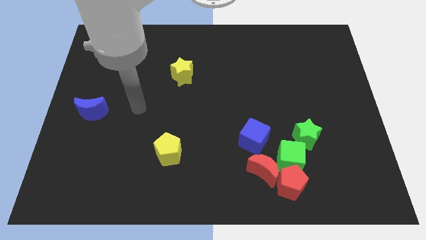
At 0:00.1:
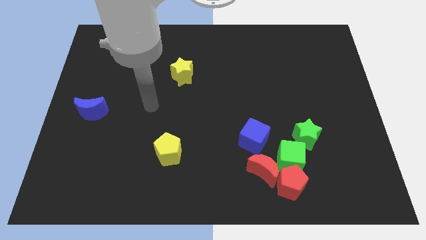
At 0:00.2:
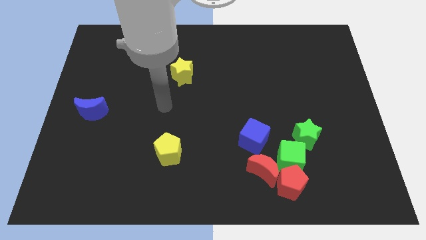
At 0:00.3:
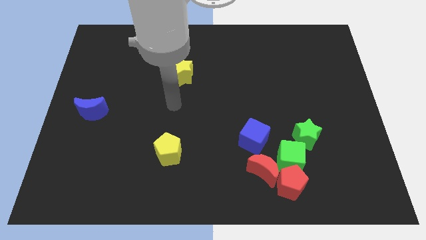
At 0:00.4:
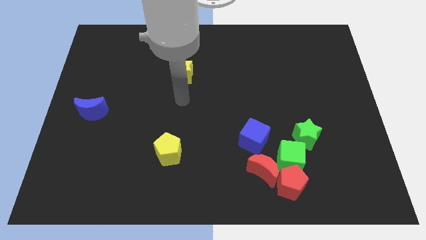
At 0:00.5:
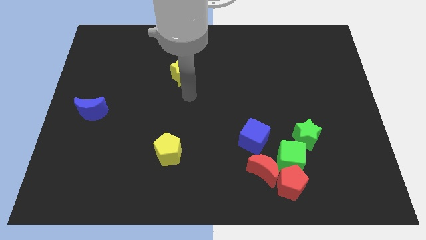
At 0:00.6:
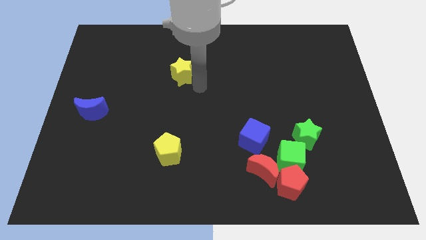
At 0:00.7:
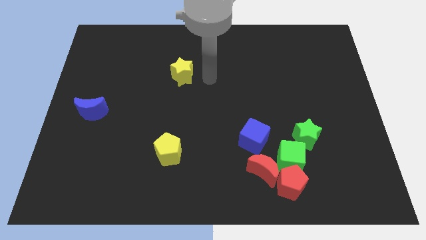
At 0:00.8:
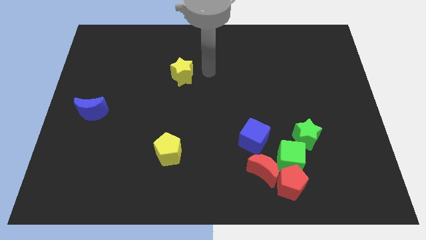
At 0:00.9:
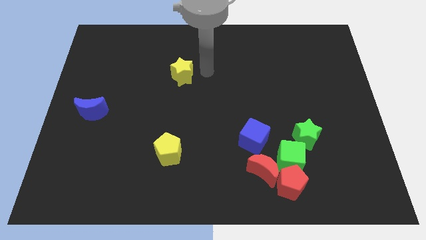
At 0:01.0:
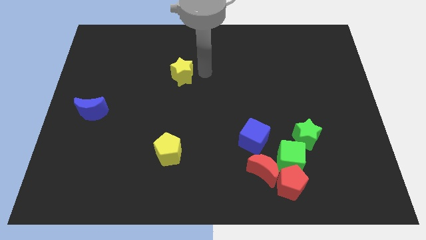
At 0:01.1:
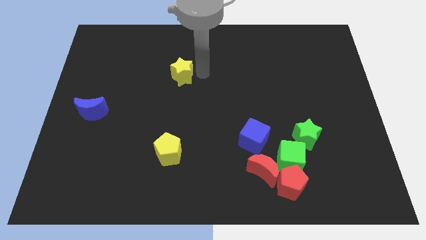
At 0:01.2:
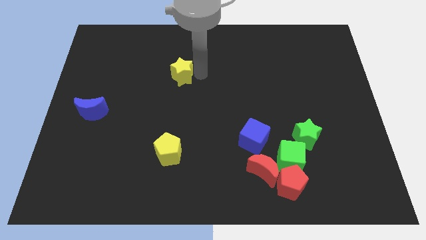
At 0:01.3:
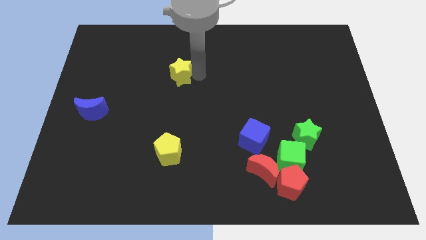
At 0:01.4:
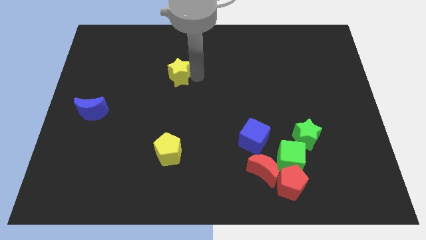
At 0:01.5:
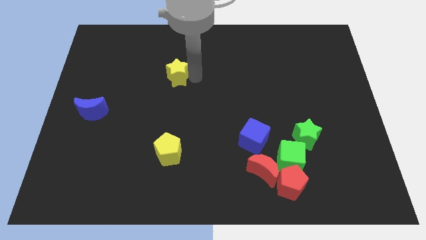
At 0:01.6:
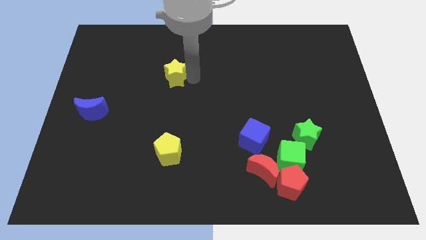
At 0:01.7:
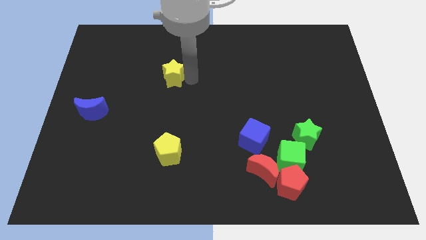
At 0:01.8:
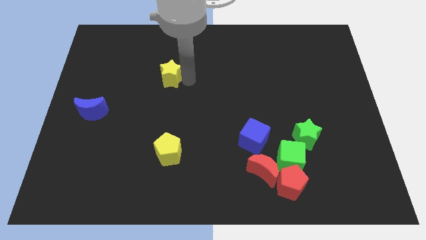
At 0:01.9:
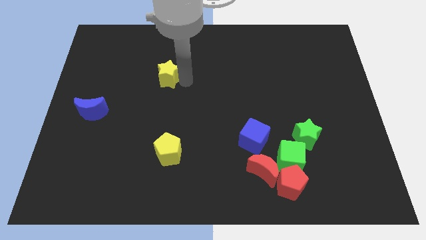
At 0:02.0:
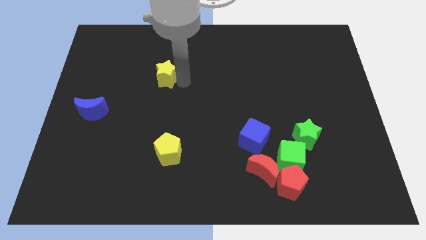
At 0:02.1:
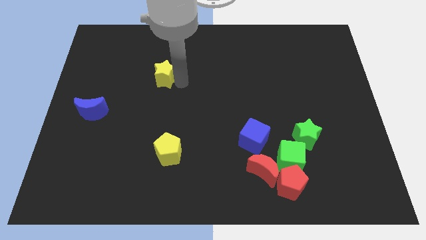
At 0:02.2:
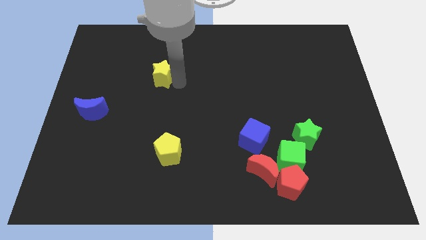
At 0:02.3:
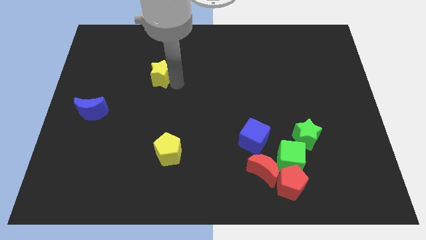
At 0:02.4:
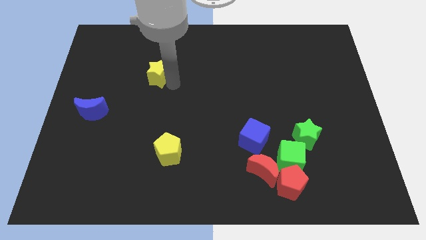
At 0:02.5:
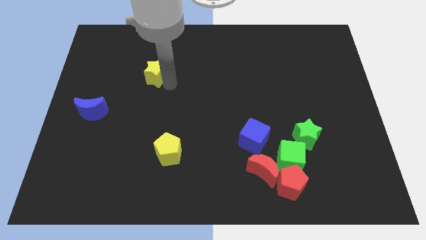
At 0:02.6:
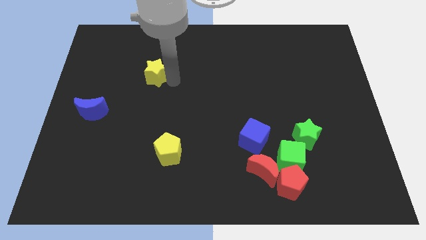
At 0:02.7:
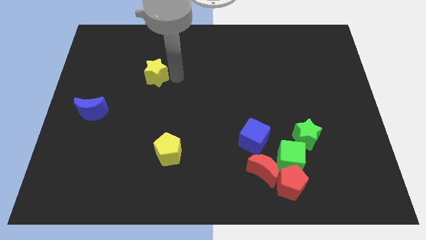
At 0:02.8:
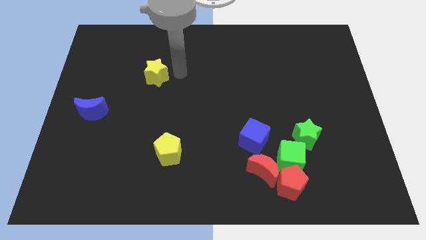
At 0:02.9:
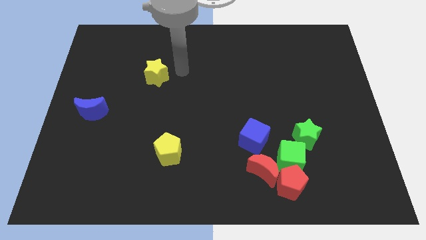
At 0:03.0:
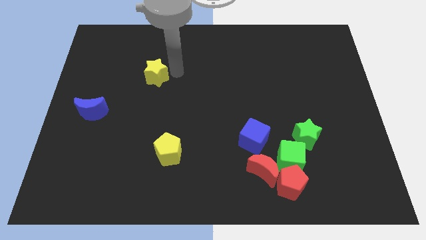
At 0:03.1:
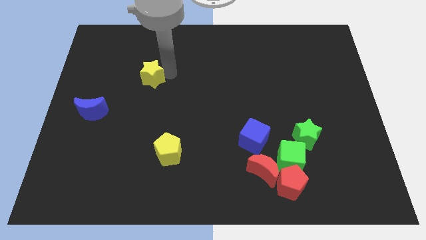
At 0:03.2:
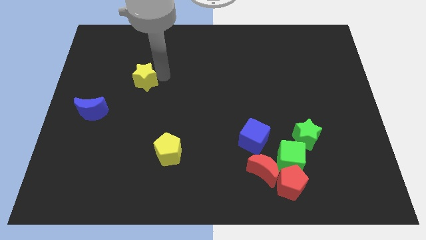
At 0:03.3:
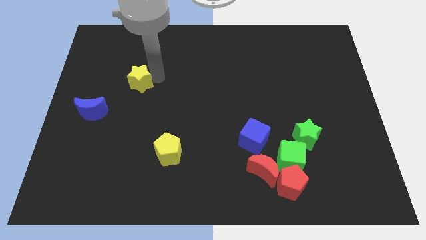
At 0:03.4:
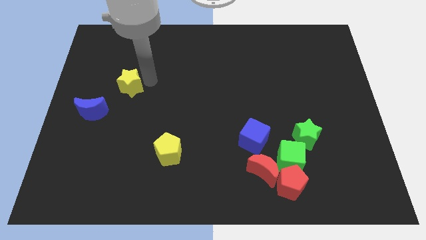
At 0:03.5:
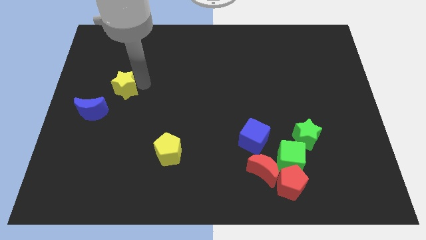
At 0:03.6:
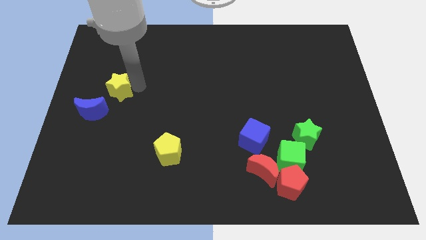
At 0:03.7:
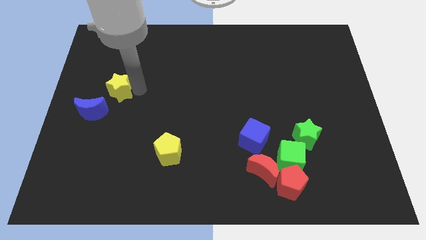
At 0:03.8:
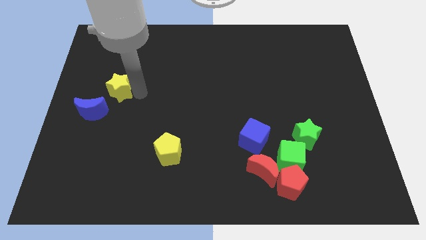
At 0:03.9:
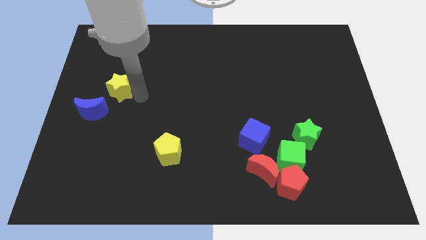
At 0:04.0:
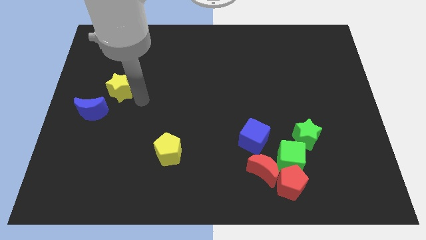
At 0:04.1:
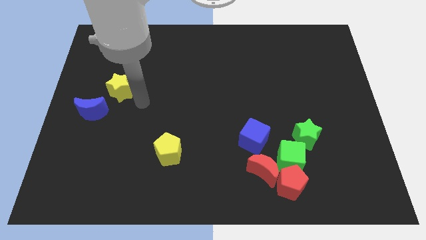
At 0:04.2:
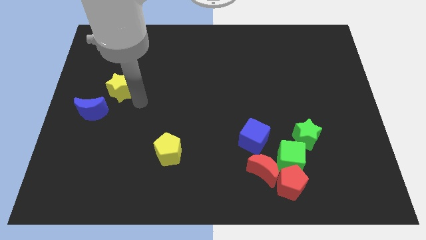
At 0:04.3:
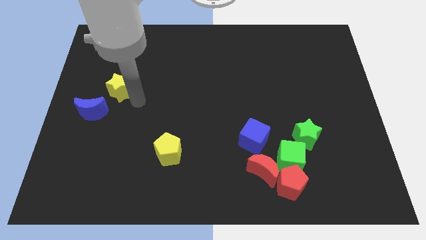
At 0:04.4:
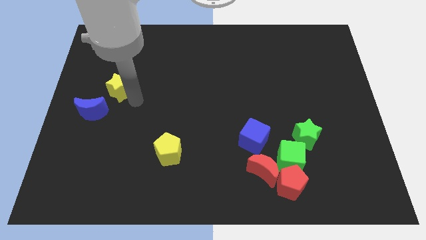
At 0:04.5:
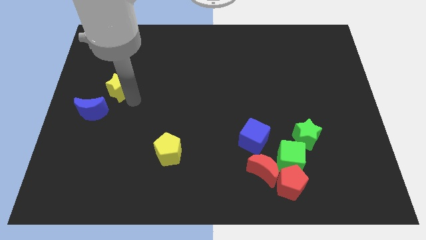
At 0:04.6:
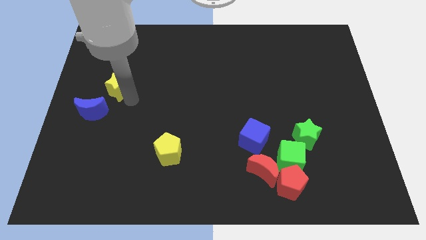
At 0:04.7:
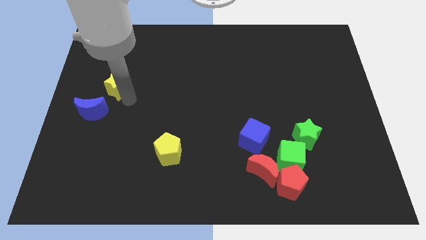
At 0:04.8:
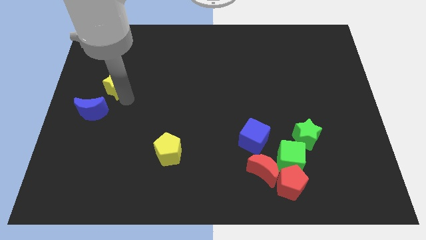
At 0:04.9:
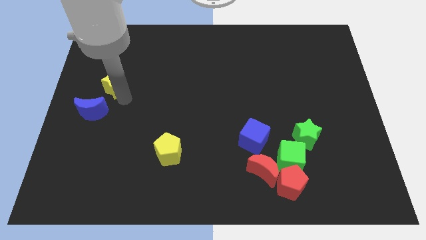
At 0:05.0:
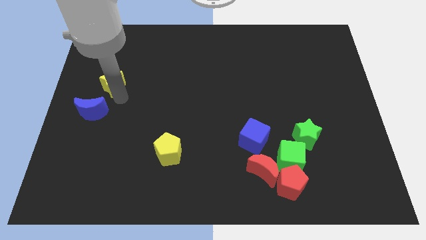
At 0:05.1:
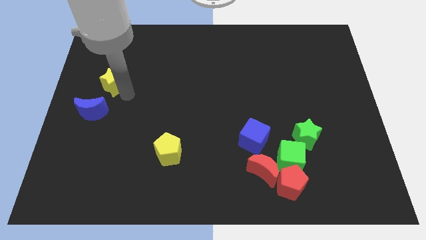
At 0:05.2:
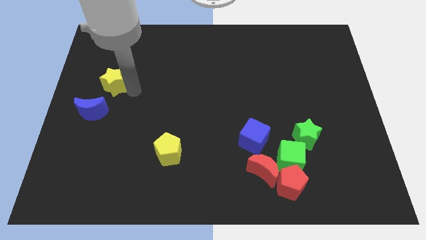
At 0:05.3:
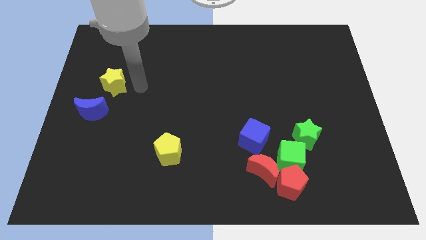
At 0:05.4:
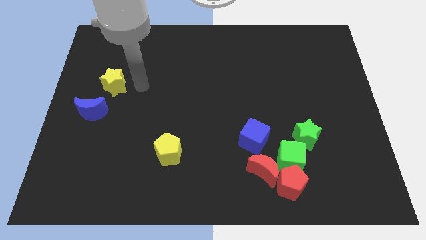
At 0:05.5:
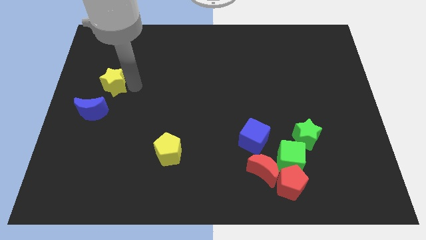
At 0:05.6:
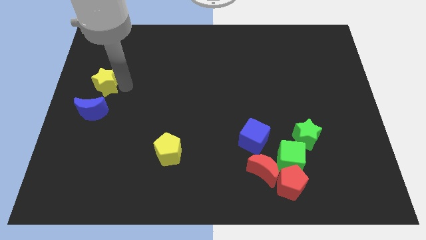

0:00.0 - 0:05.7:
push the yellow star to the center left

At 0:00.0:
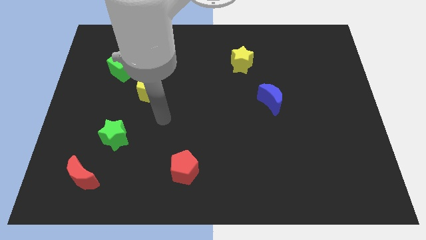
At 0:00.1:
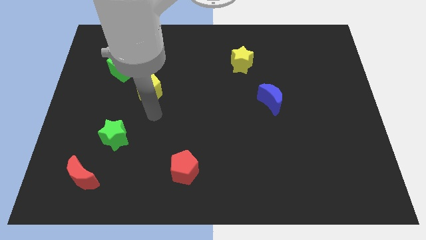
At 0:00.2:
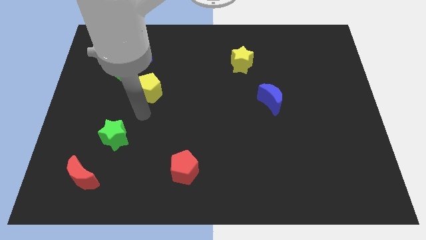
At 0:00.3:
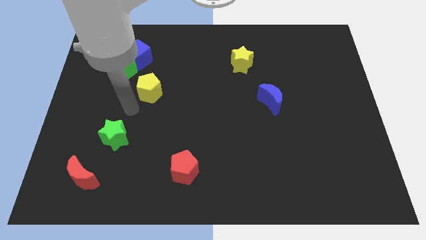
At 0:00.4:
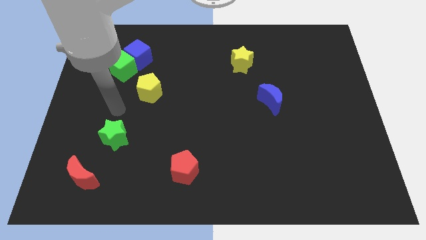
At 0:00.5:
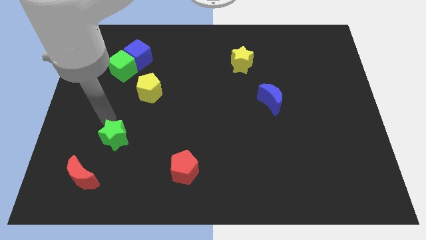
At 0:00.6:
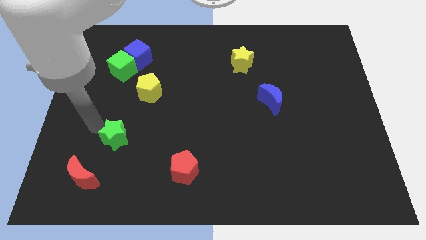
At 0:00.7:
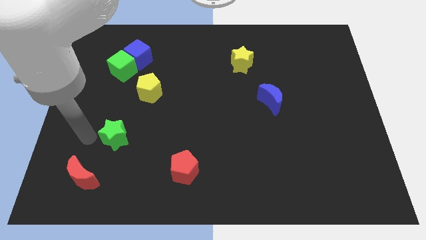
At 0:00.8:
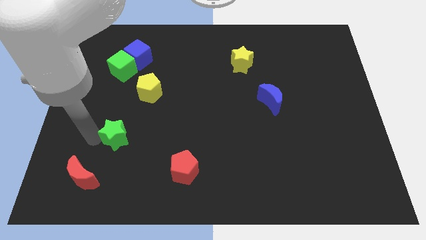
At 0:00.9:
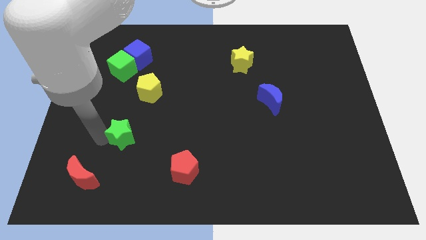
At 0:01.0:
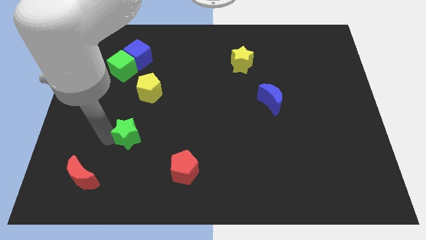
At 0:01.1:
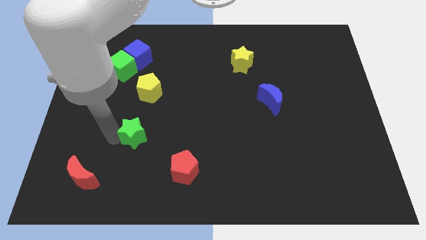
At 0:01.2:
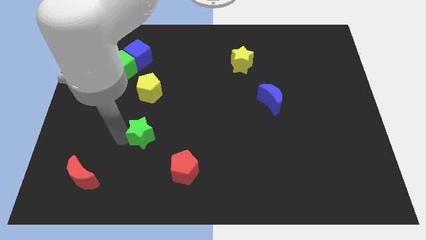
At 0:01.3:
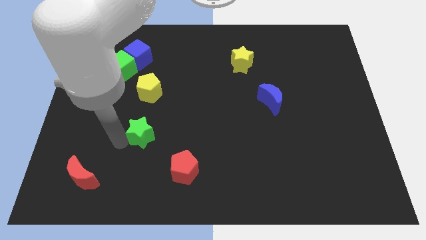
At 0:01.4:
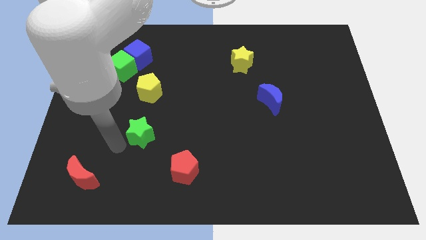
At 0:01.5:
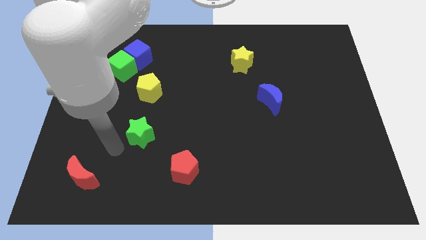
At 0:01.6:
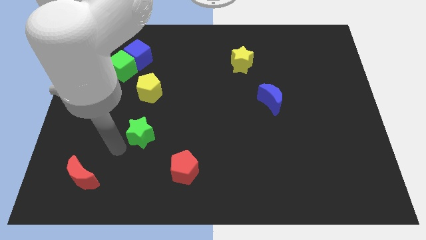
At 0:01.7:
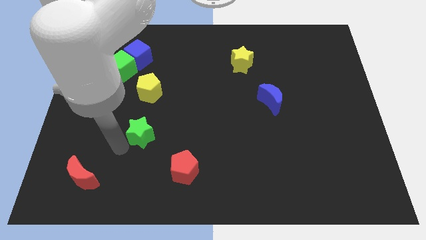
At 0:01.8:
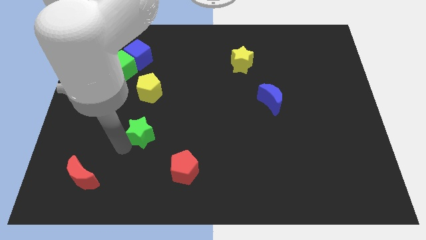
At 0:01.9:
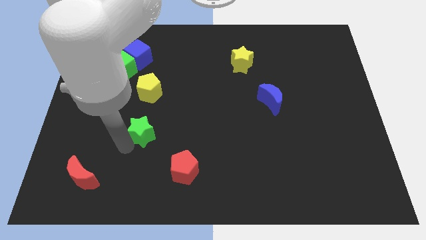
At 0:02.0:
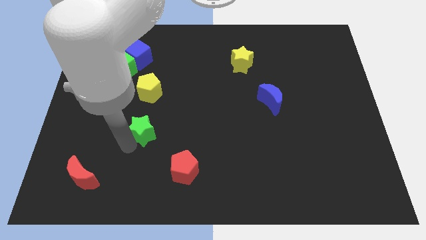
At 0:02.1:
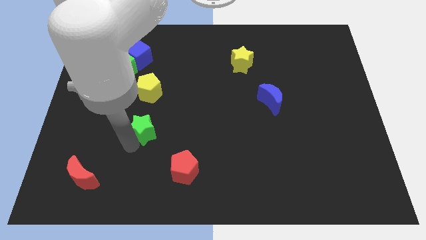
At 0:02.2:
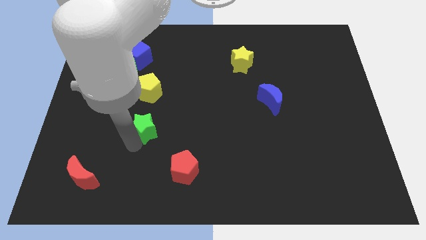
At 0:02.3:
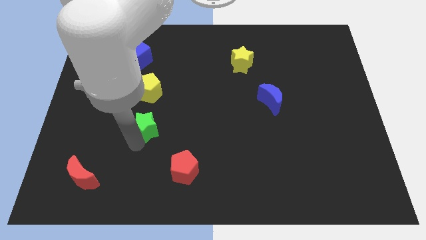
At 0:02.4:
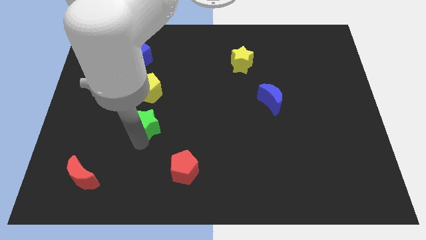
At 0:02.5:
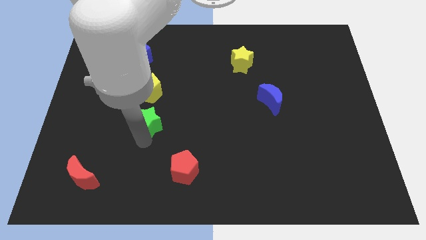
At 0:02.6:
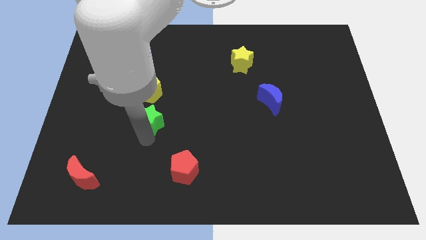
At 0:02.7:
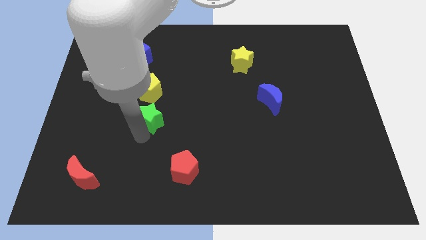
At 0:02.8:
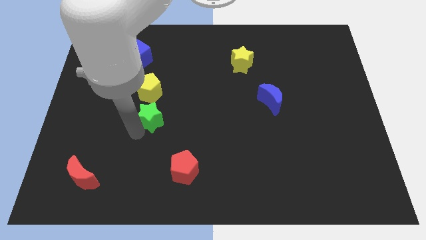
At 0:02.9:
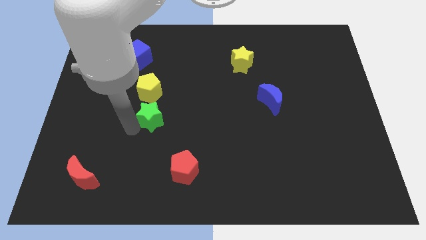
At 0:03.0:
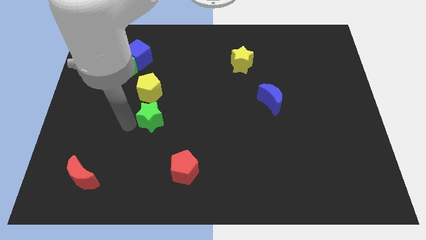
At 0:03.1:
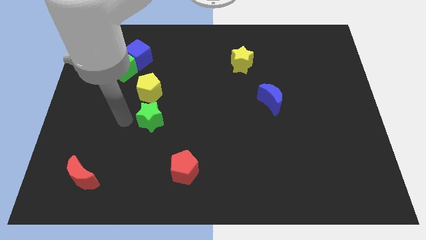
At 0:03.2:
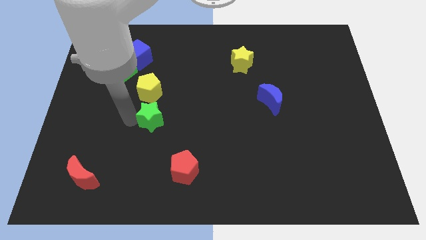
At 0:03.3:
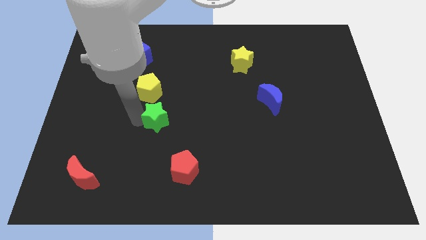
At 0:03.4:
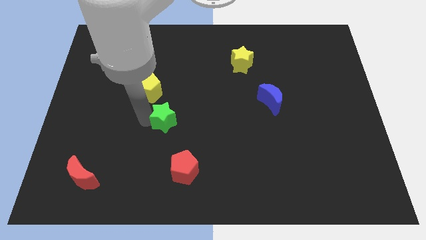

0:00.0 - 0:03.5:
slide the green star to the center of the board
